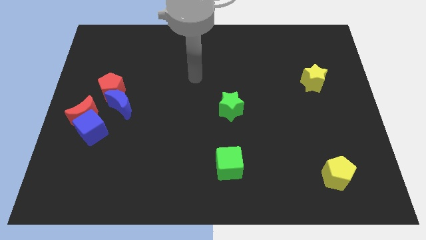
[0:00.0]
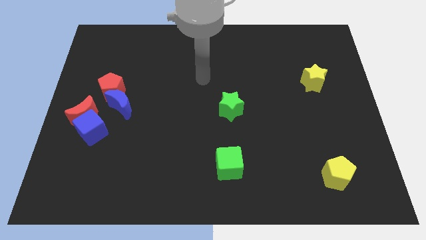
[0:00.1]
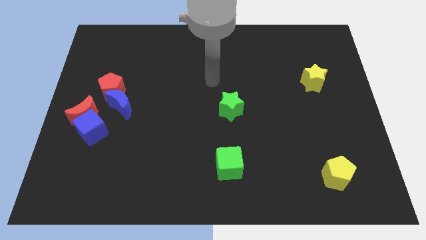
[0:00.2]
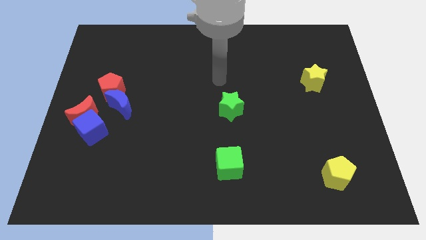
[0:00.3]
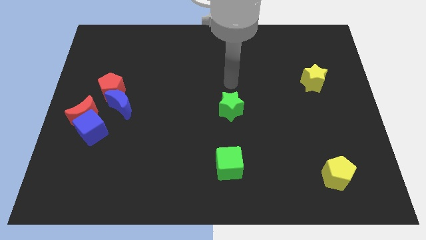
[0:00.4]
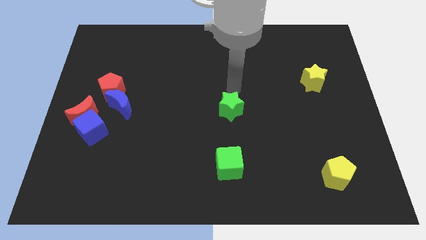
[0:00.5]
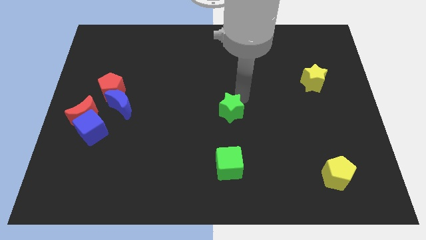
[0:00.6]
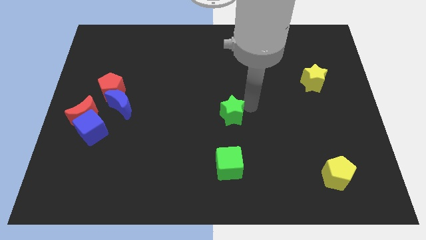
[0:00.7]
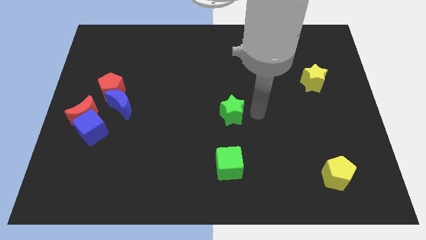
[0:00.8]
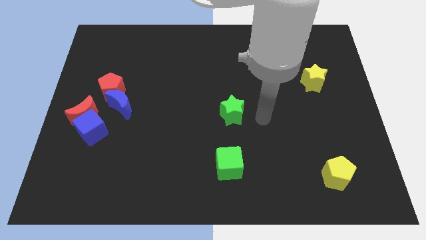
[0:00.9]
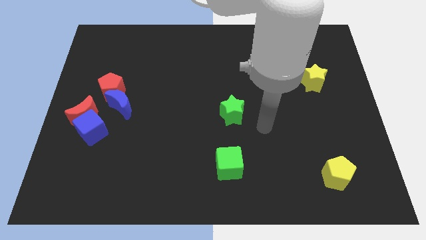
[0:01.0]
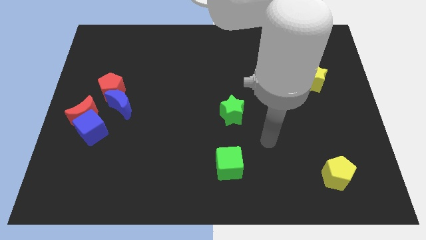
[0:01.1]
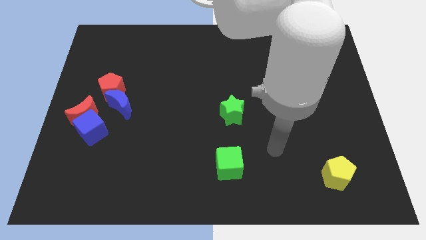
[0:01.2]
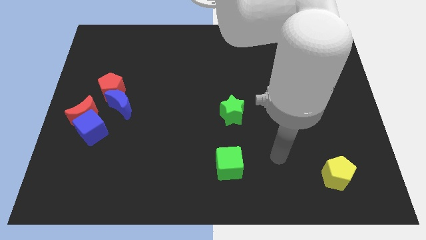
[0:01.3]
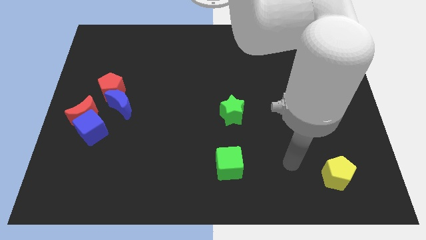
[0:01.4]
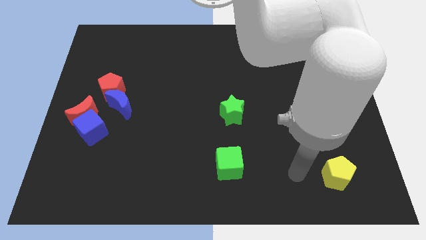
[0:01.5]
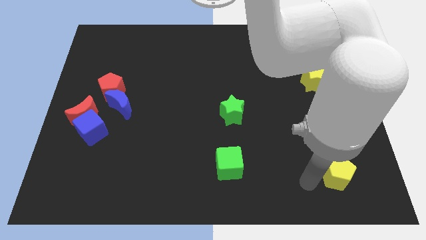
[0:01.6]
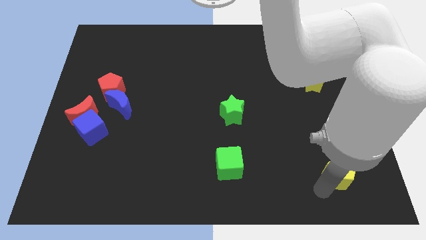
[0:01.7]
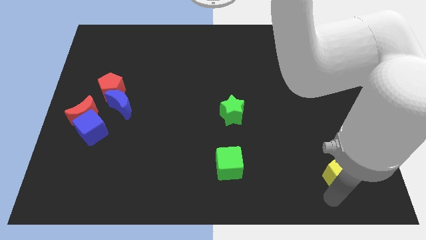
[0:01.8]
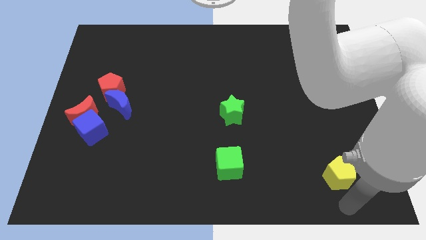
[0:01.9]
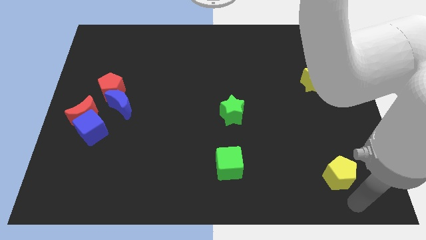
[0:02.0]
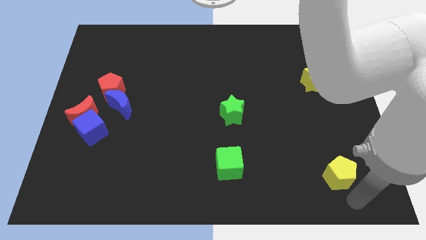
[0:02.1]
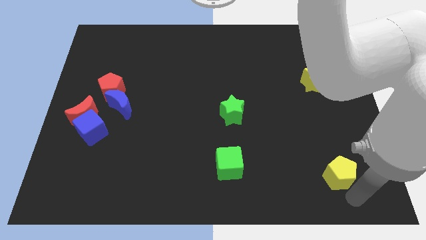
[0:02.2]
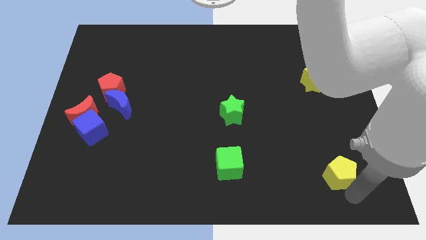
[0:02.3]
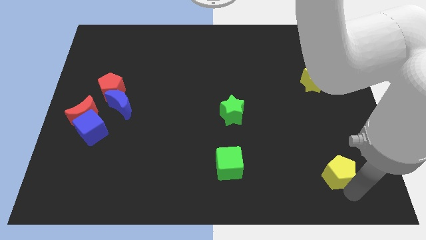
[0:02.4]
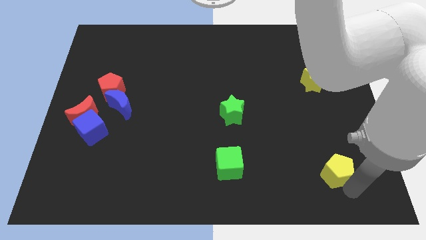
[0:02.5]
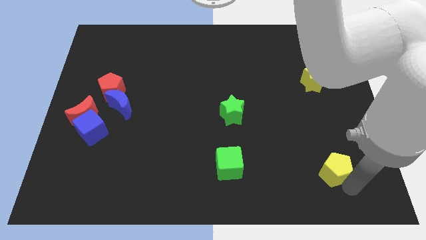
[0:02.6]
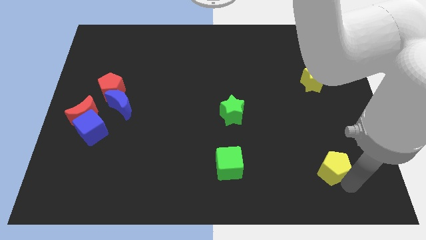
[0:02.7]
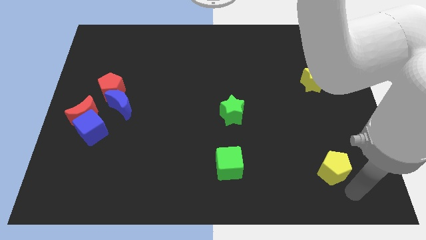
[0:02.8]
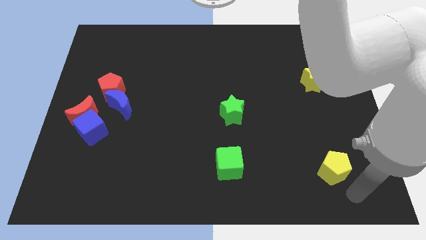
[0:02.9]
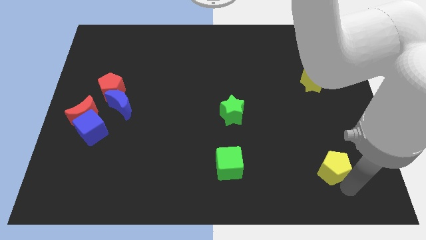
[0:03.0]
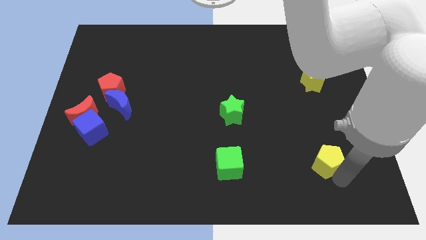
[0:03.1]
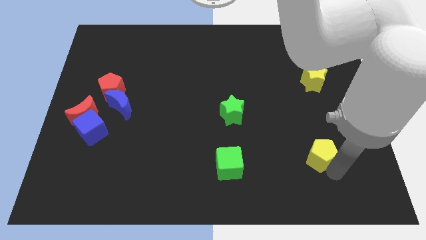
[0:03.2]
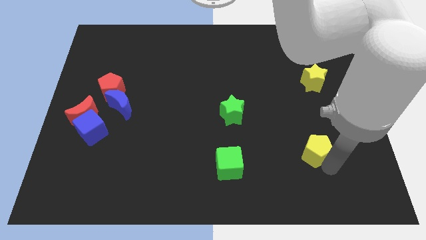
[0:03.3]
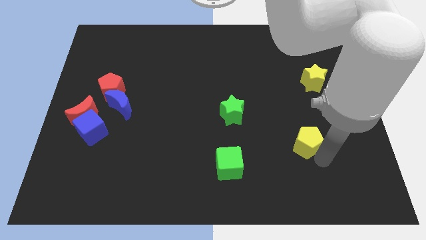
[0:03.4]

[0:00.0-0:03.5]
move the yellow pentagon a little up and then left

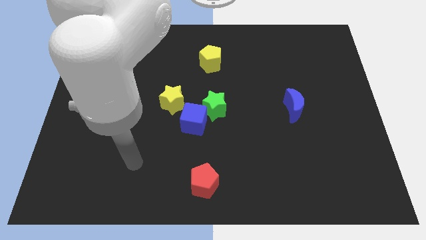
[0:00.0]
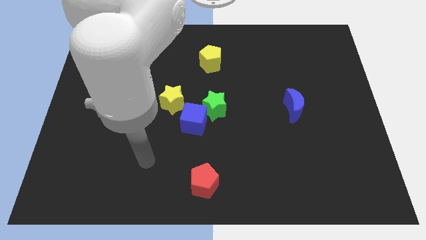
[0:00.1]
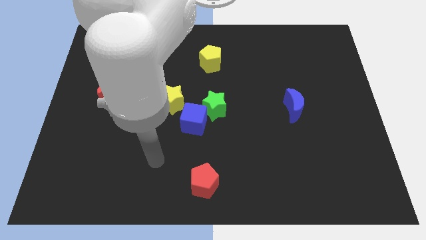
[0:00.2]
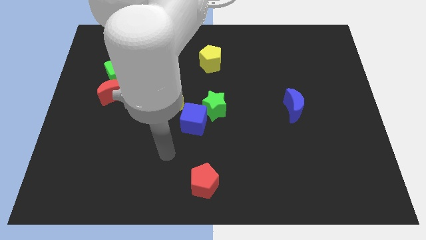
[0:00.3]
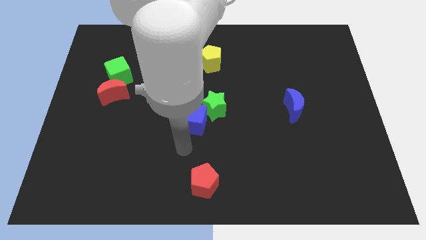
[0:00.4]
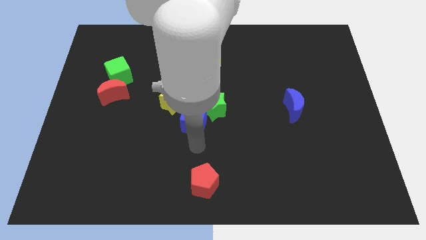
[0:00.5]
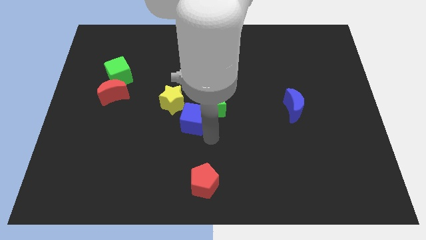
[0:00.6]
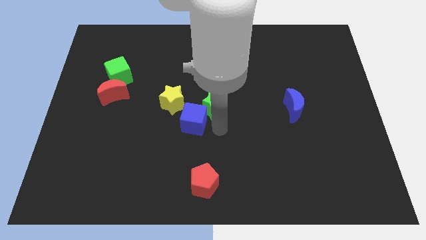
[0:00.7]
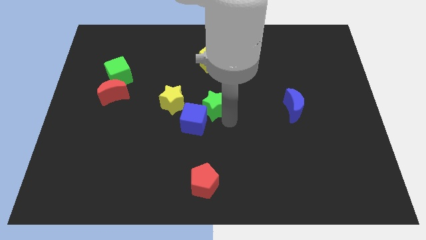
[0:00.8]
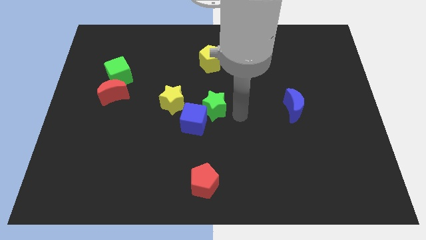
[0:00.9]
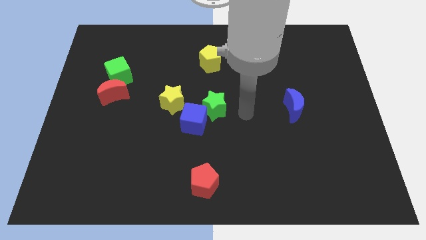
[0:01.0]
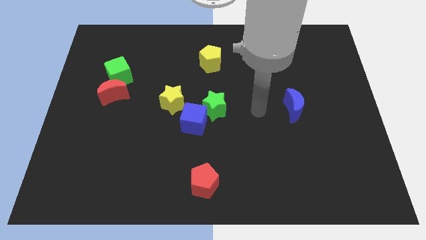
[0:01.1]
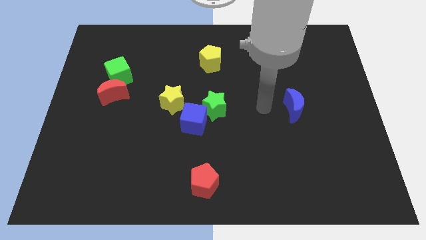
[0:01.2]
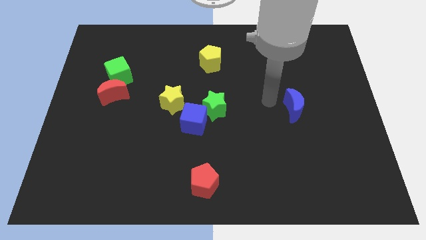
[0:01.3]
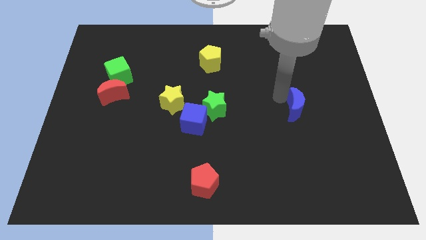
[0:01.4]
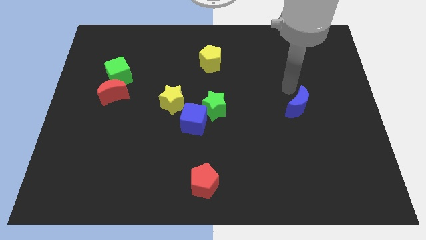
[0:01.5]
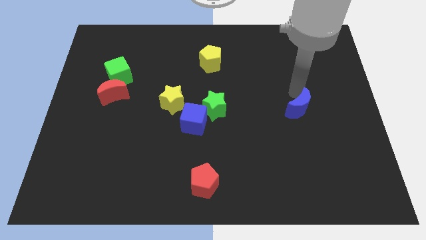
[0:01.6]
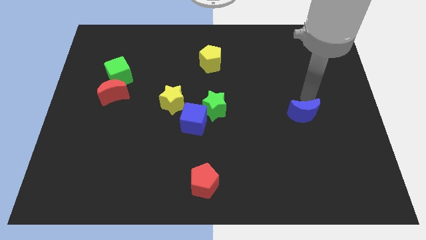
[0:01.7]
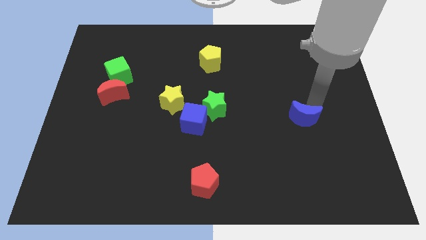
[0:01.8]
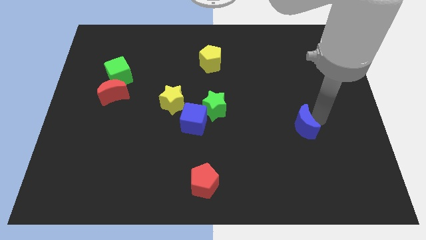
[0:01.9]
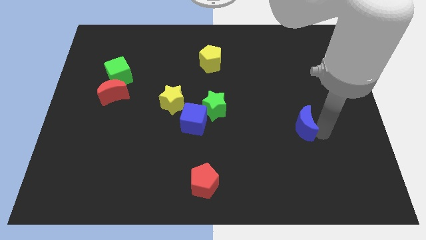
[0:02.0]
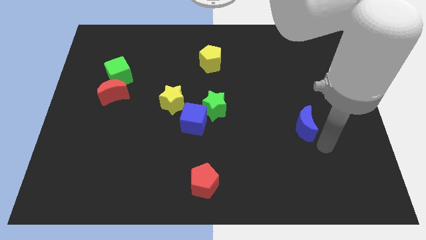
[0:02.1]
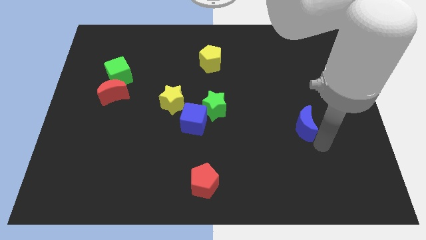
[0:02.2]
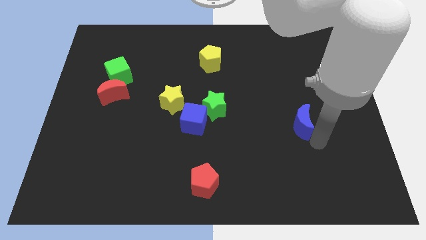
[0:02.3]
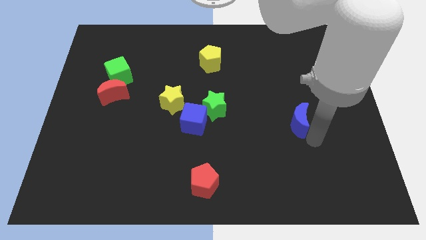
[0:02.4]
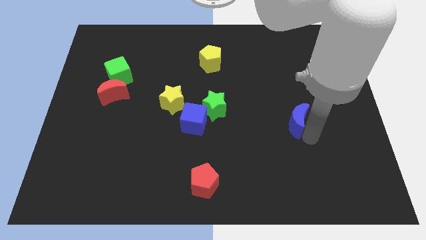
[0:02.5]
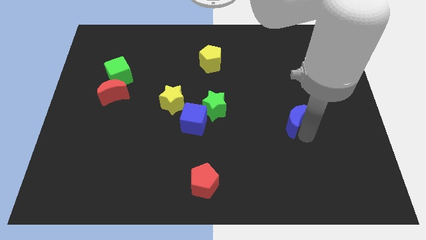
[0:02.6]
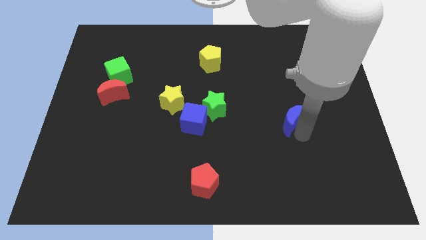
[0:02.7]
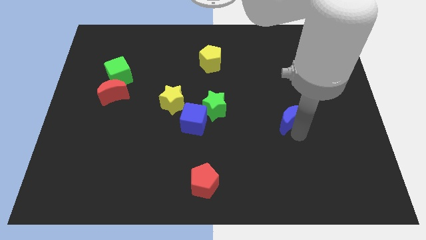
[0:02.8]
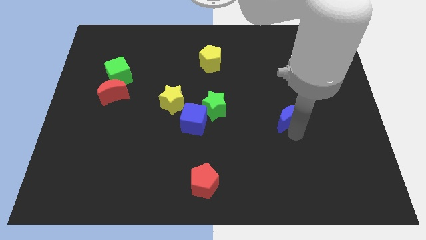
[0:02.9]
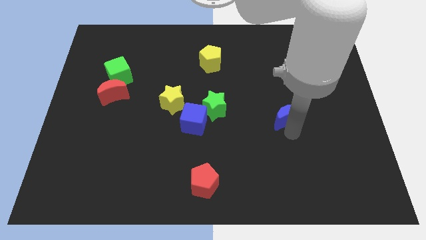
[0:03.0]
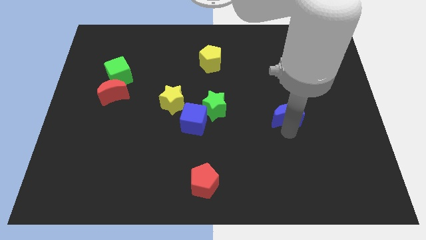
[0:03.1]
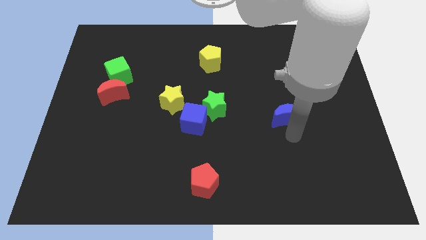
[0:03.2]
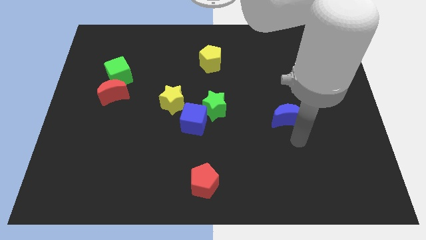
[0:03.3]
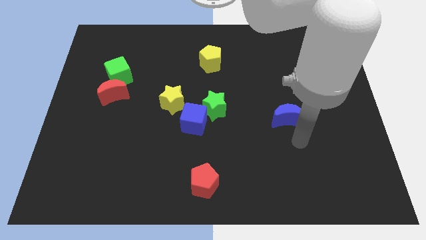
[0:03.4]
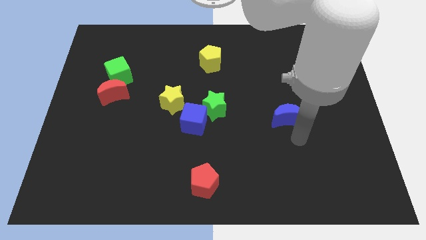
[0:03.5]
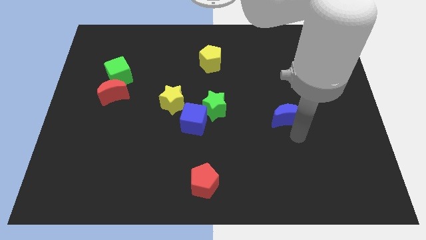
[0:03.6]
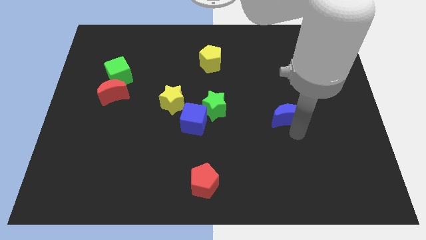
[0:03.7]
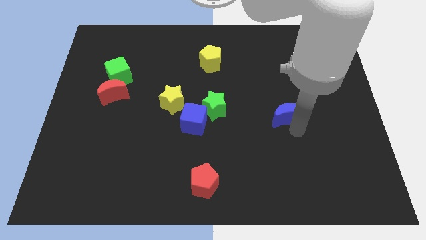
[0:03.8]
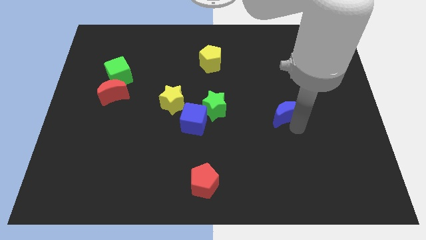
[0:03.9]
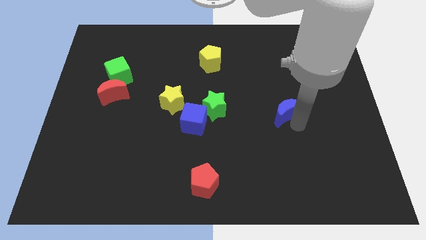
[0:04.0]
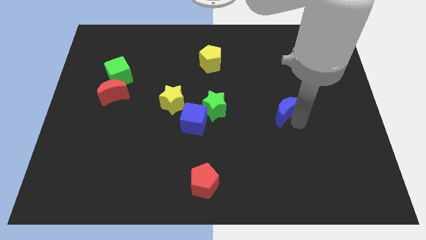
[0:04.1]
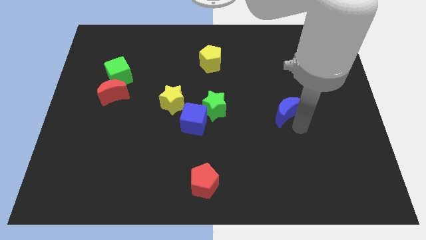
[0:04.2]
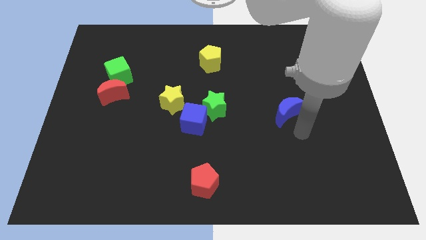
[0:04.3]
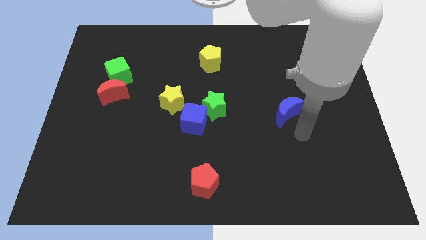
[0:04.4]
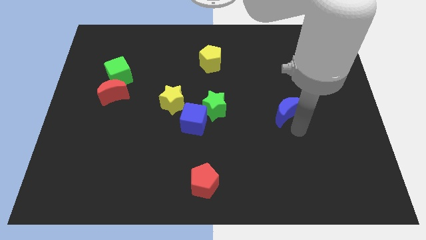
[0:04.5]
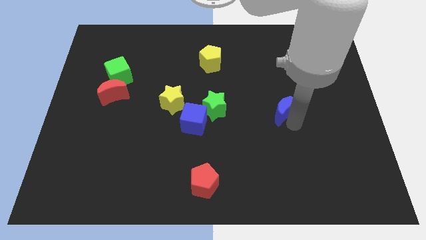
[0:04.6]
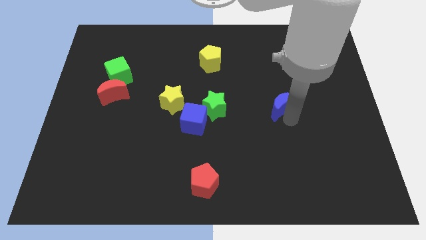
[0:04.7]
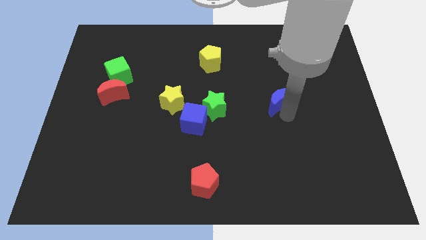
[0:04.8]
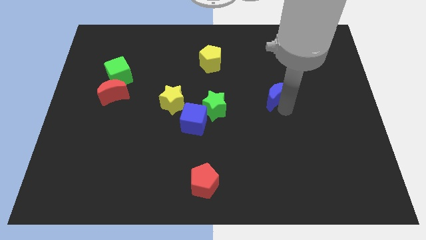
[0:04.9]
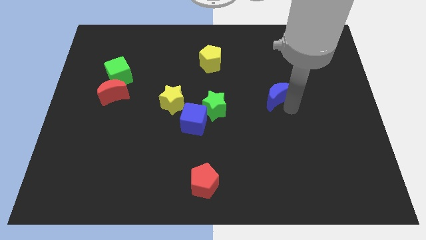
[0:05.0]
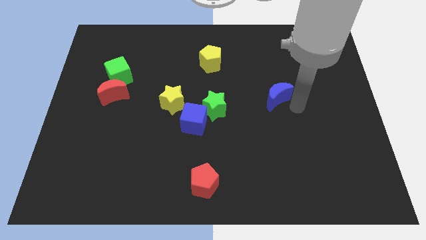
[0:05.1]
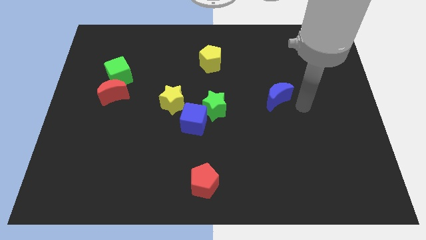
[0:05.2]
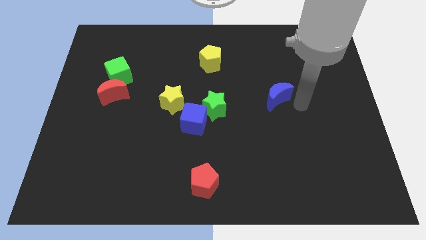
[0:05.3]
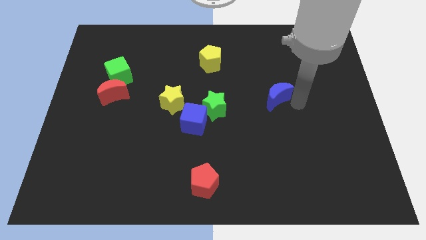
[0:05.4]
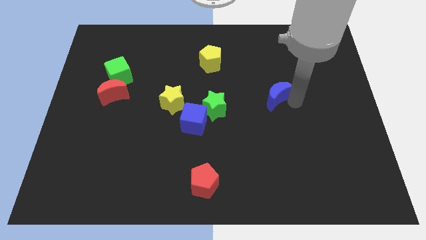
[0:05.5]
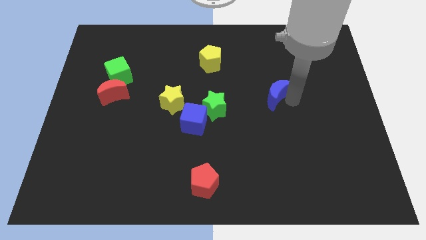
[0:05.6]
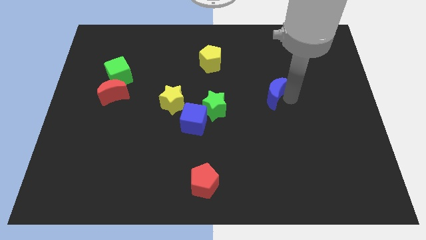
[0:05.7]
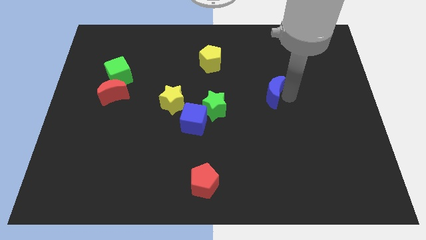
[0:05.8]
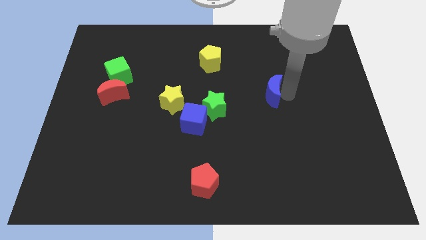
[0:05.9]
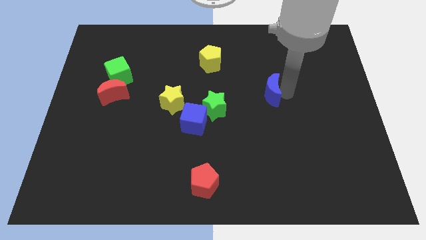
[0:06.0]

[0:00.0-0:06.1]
slightly move the blue moon upwards and then left
